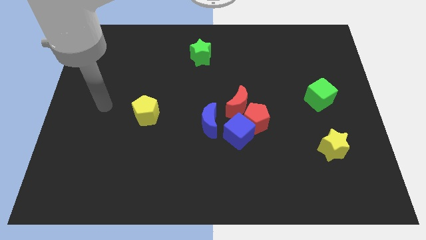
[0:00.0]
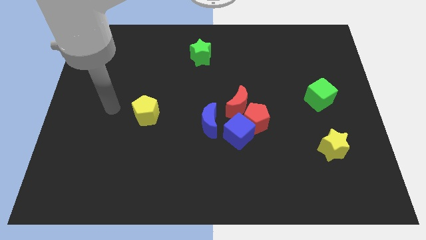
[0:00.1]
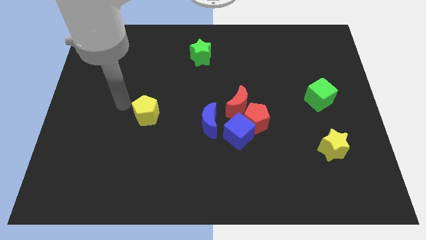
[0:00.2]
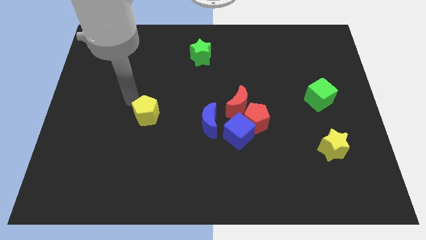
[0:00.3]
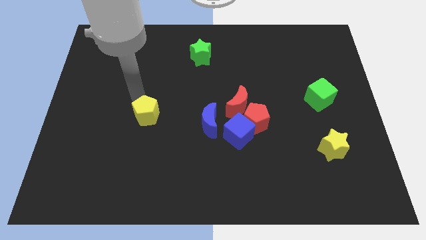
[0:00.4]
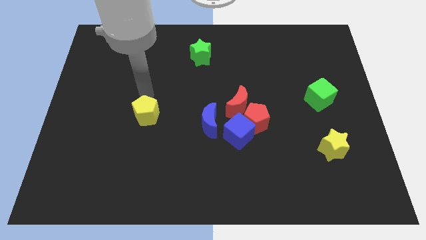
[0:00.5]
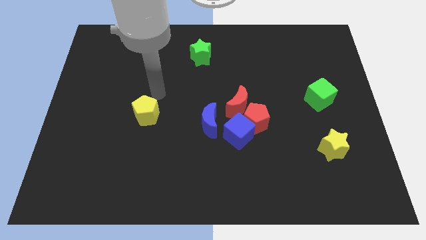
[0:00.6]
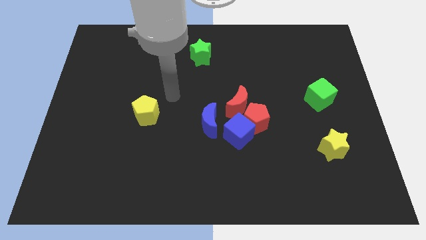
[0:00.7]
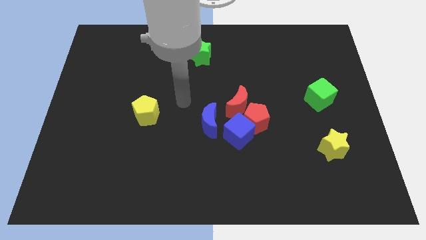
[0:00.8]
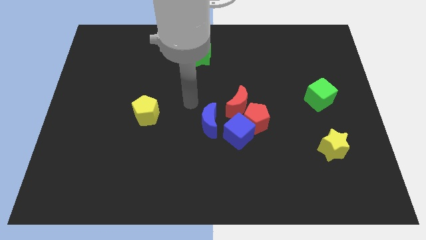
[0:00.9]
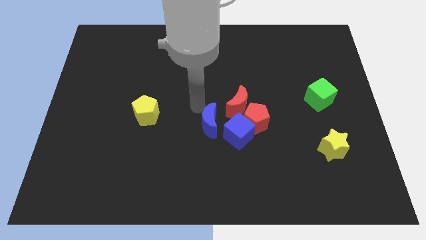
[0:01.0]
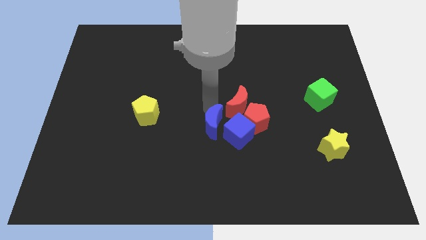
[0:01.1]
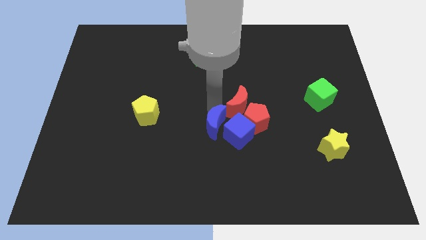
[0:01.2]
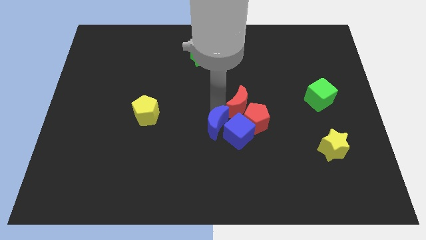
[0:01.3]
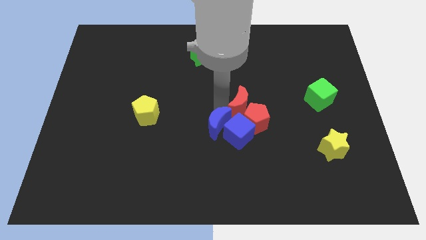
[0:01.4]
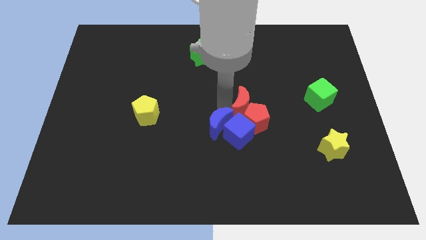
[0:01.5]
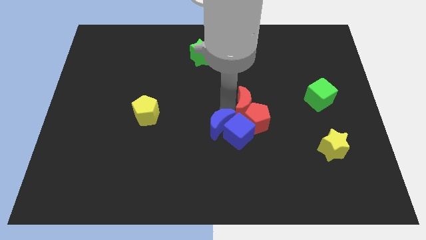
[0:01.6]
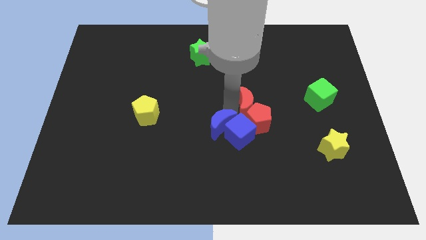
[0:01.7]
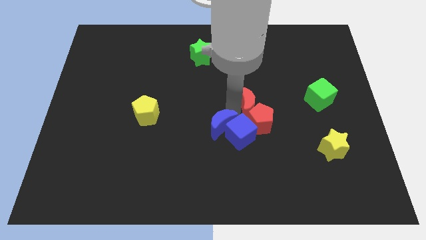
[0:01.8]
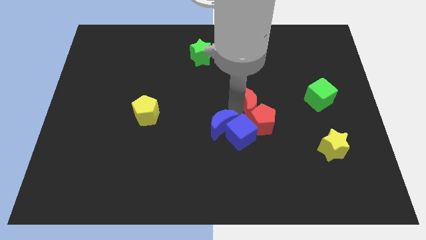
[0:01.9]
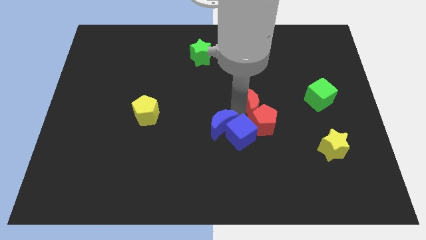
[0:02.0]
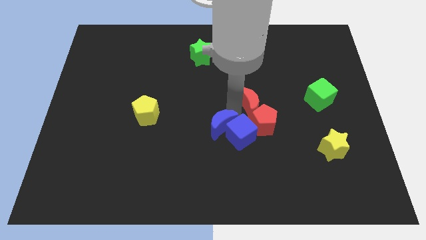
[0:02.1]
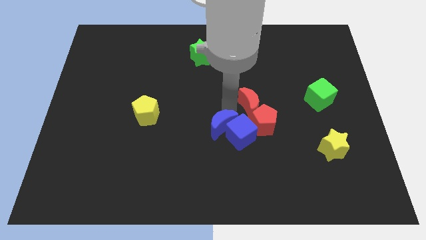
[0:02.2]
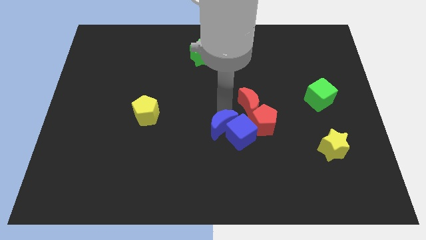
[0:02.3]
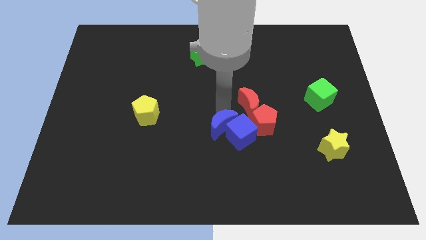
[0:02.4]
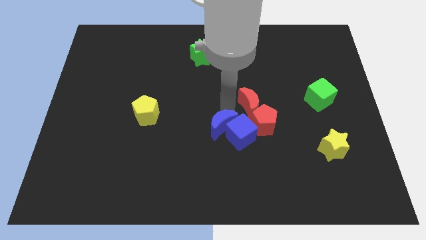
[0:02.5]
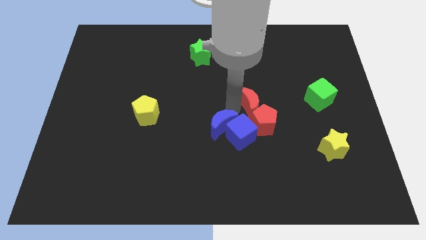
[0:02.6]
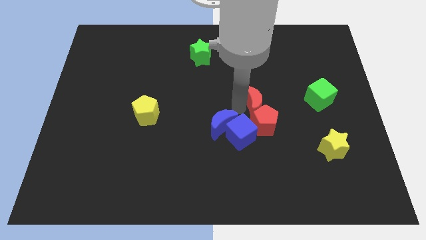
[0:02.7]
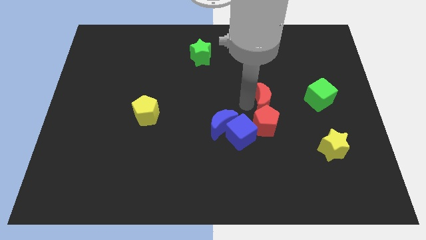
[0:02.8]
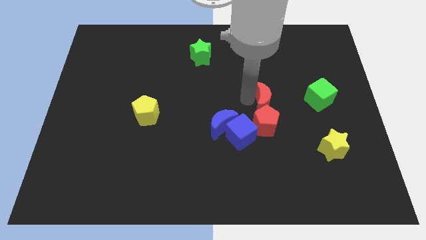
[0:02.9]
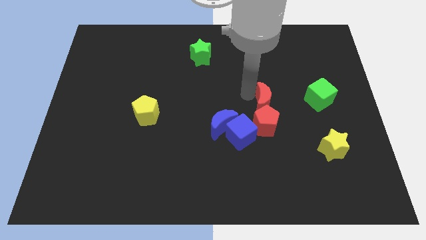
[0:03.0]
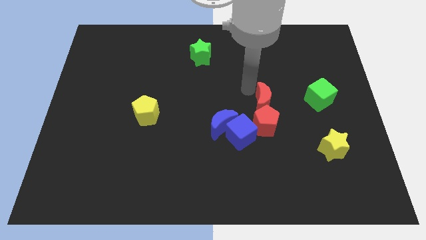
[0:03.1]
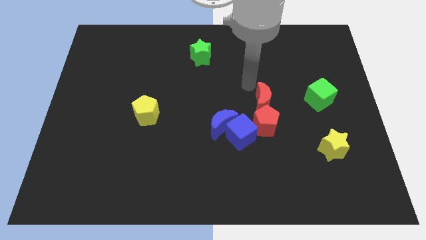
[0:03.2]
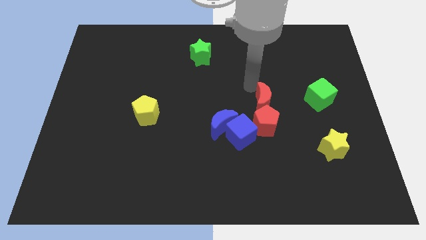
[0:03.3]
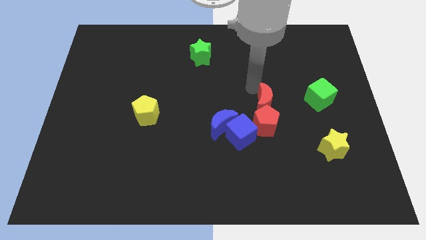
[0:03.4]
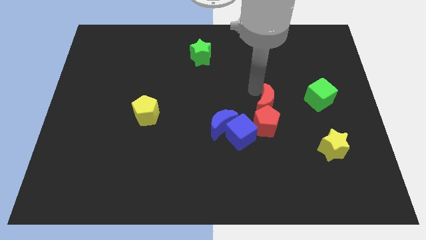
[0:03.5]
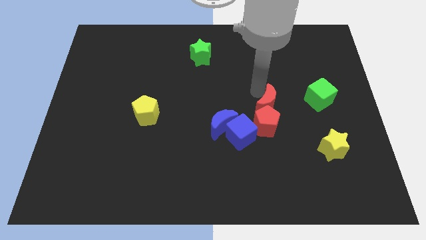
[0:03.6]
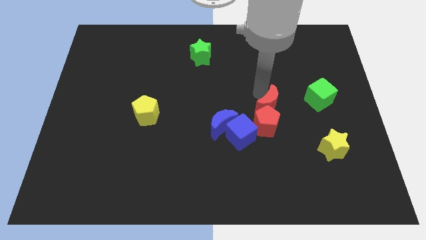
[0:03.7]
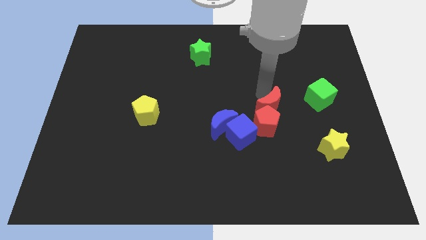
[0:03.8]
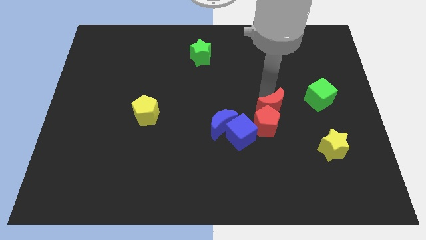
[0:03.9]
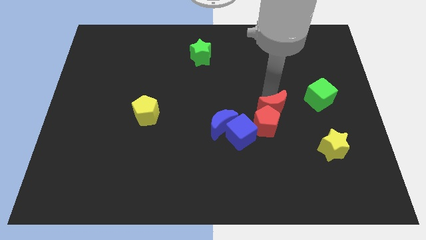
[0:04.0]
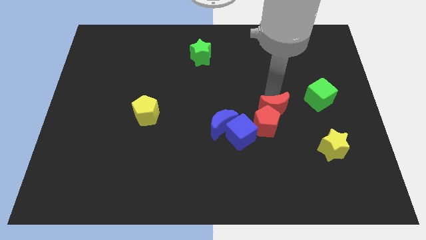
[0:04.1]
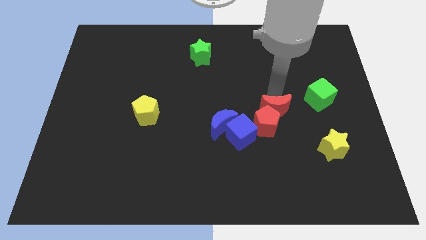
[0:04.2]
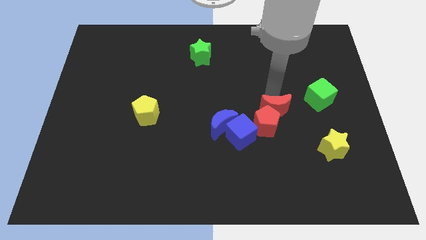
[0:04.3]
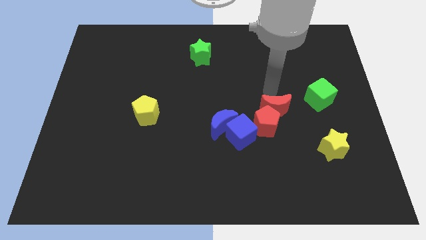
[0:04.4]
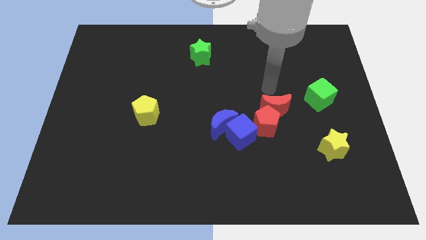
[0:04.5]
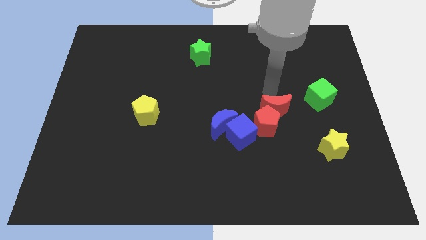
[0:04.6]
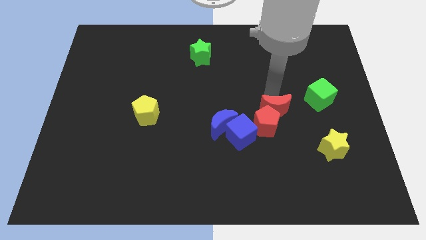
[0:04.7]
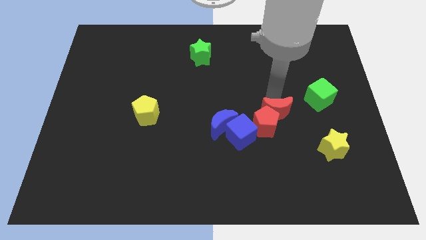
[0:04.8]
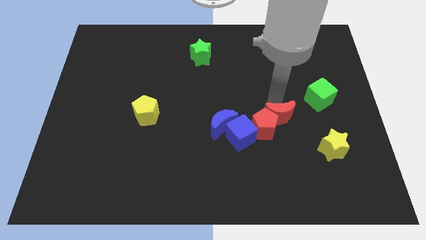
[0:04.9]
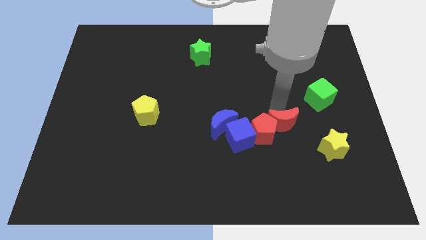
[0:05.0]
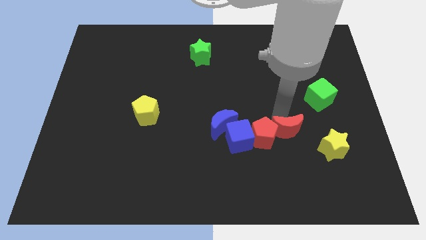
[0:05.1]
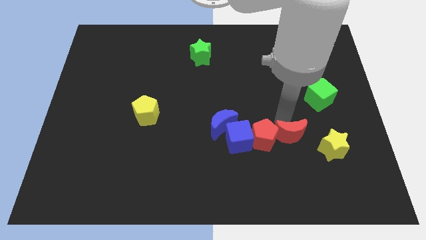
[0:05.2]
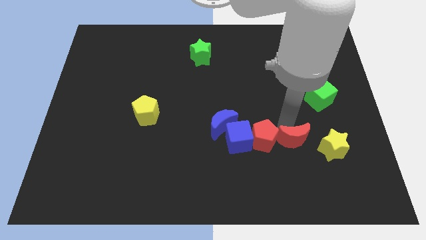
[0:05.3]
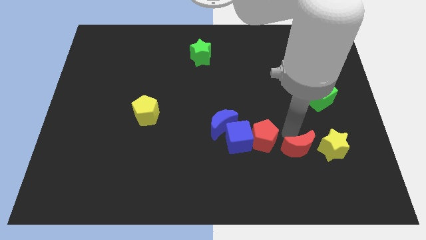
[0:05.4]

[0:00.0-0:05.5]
put the red moon to the bottom left side of the yellow star

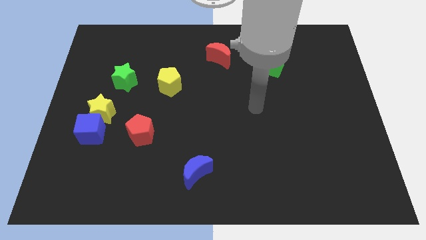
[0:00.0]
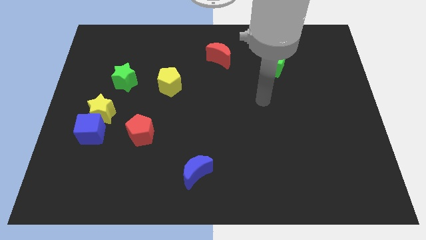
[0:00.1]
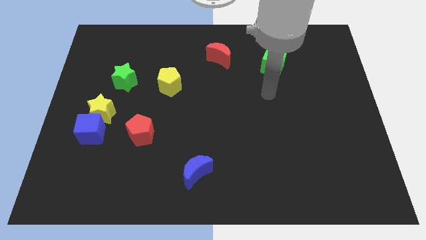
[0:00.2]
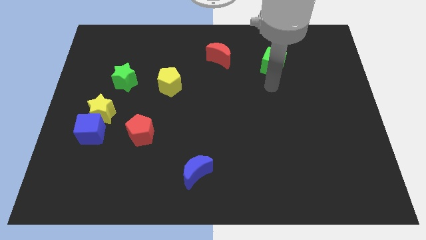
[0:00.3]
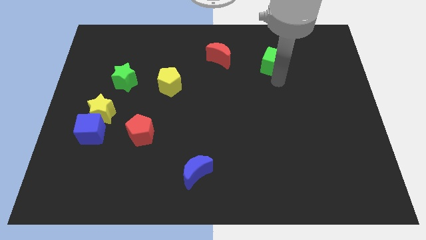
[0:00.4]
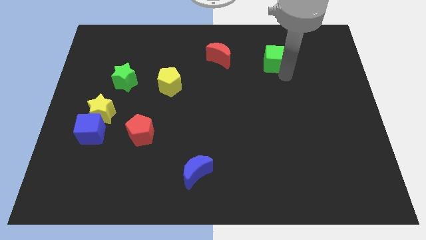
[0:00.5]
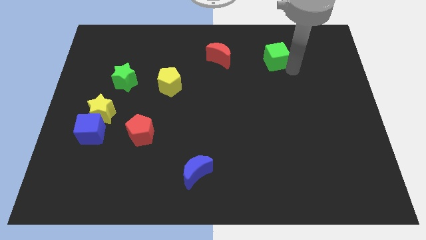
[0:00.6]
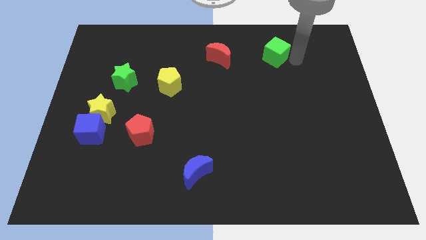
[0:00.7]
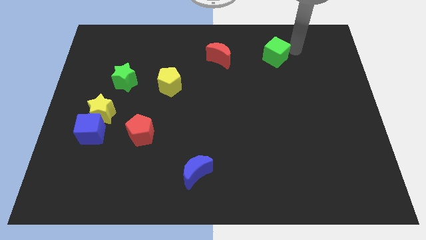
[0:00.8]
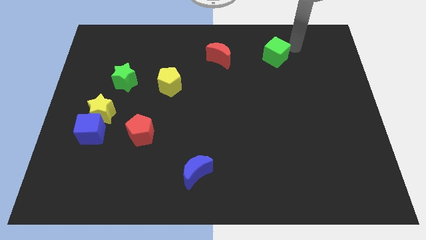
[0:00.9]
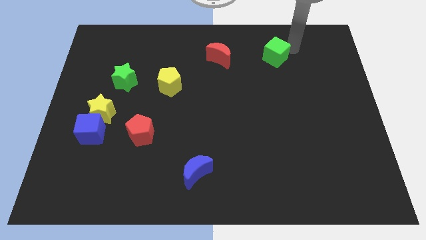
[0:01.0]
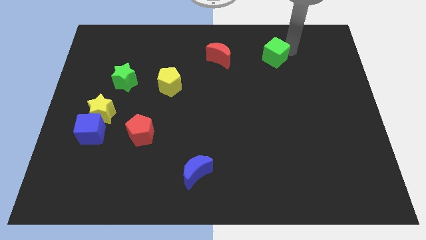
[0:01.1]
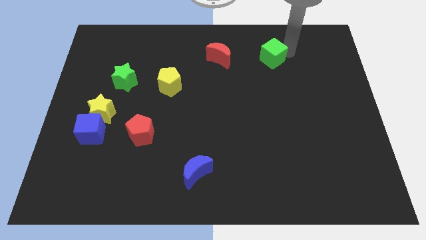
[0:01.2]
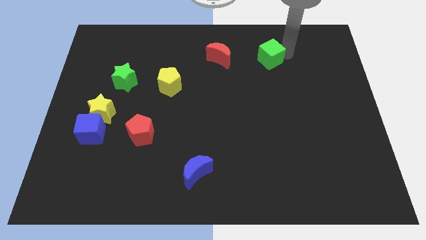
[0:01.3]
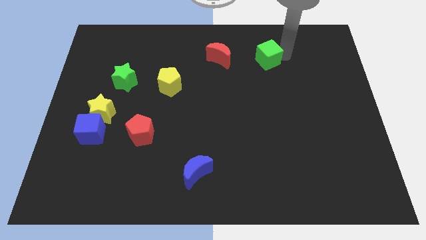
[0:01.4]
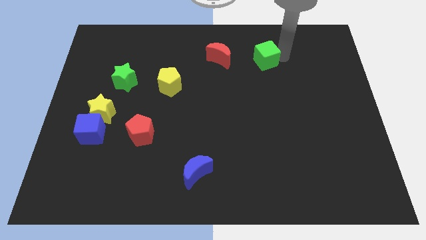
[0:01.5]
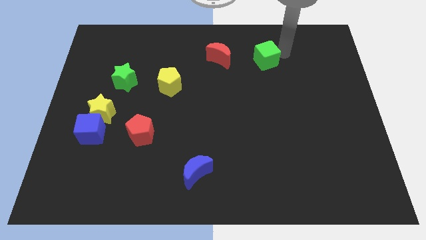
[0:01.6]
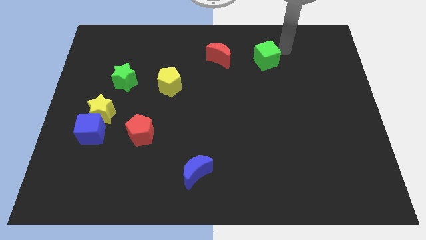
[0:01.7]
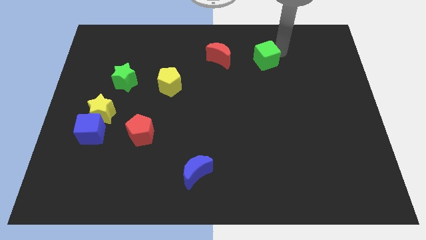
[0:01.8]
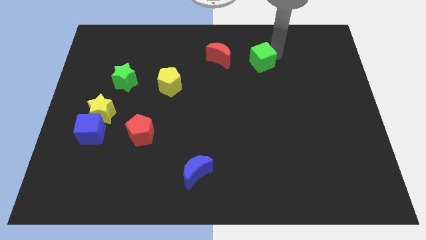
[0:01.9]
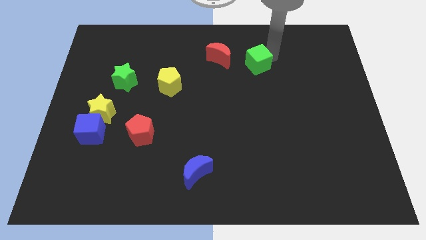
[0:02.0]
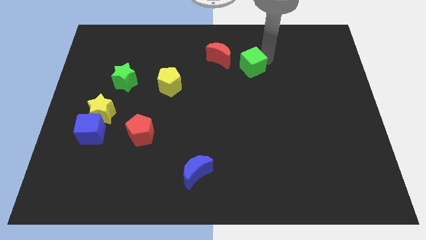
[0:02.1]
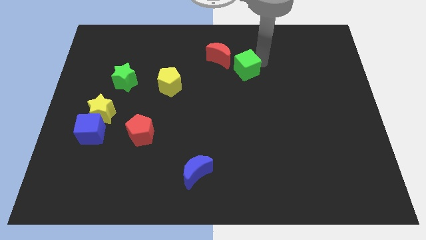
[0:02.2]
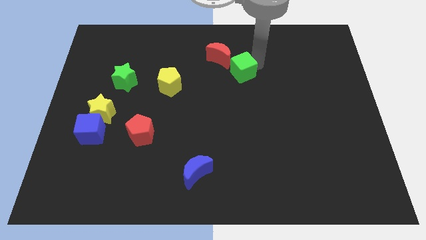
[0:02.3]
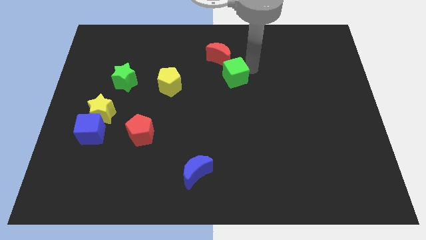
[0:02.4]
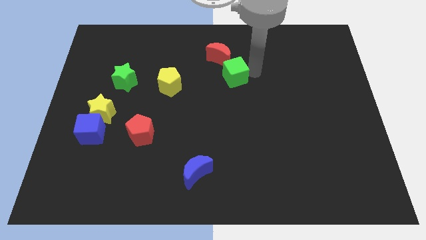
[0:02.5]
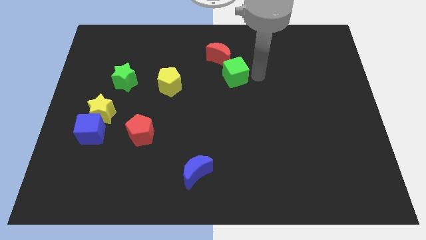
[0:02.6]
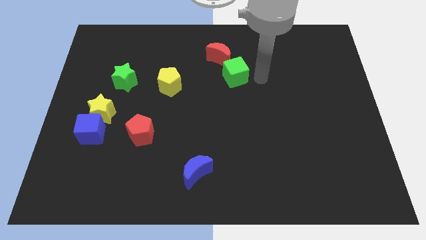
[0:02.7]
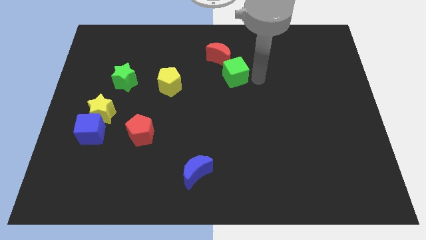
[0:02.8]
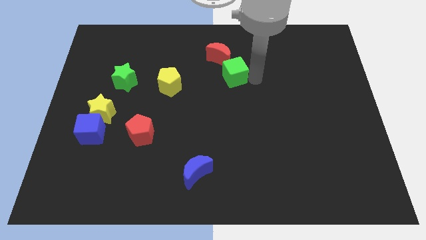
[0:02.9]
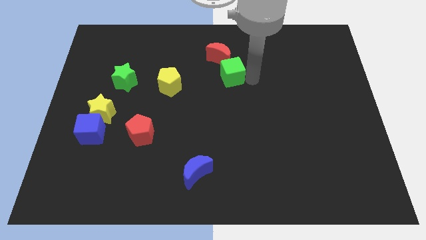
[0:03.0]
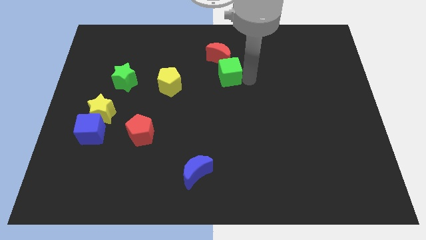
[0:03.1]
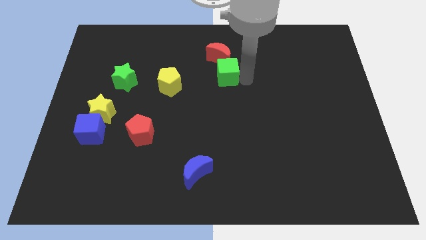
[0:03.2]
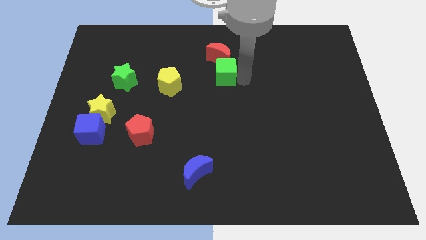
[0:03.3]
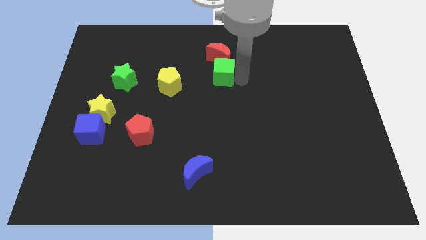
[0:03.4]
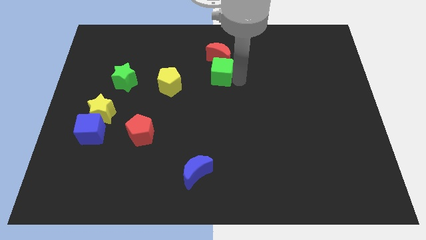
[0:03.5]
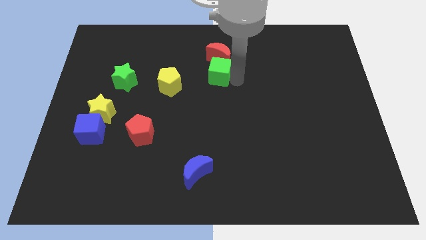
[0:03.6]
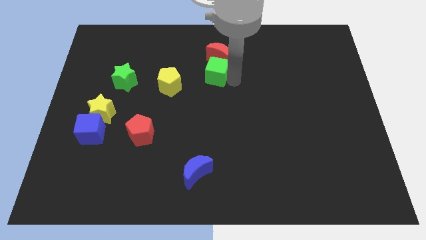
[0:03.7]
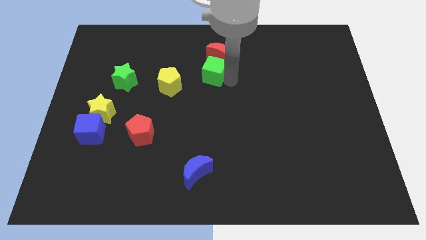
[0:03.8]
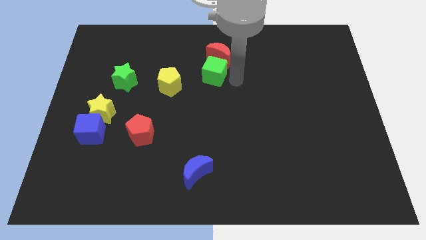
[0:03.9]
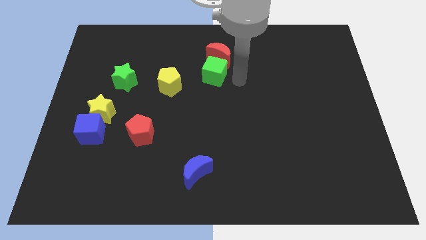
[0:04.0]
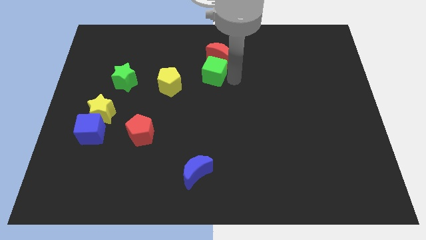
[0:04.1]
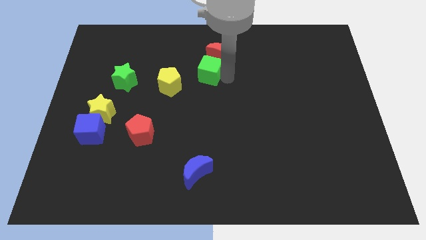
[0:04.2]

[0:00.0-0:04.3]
push the green cube diagonally up and to the right of the yellow pentagon
